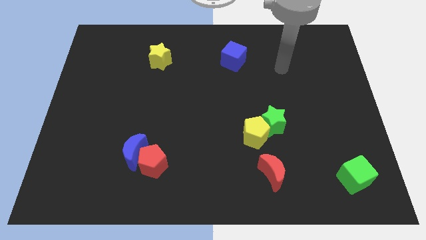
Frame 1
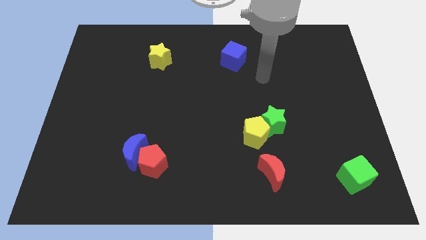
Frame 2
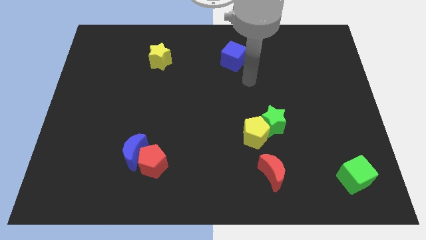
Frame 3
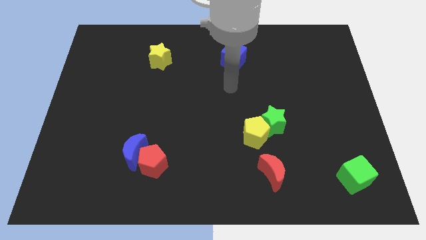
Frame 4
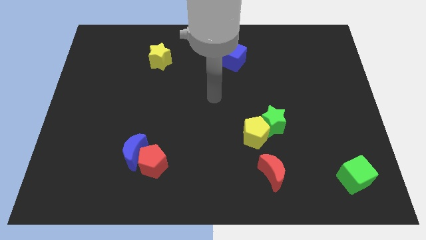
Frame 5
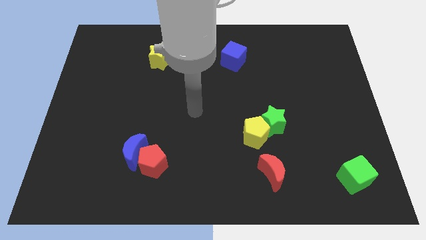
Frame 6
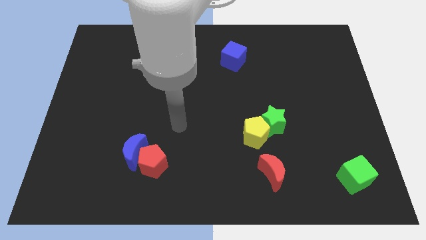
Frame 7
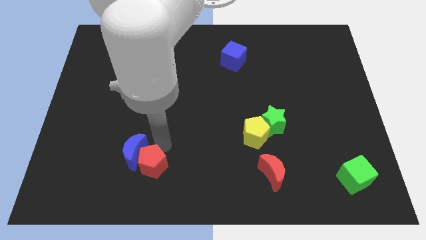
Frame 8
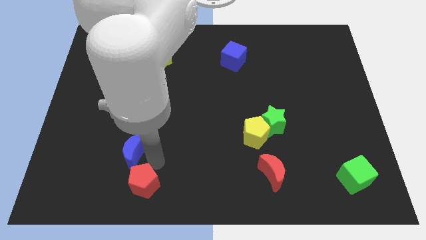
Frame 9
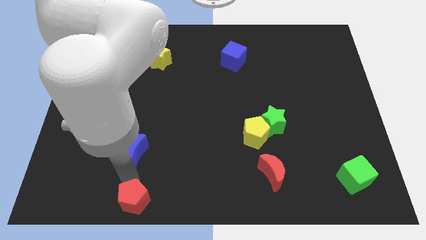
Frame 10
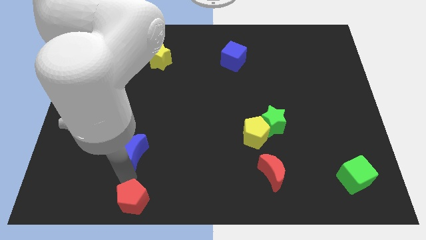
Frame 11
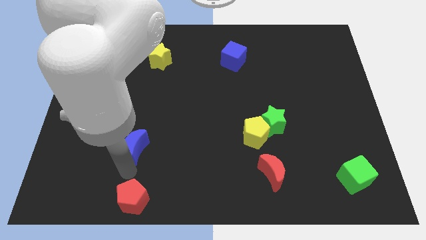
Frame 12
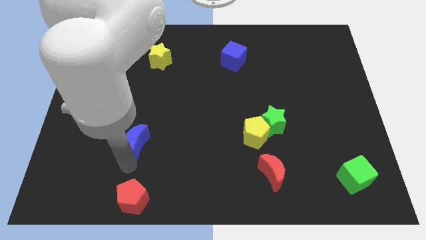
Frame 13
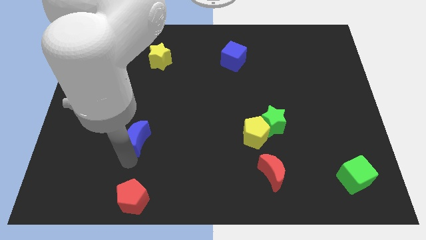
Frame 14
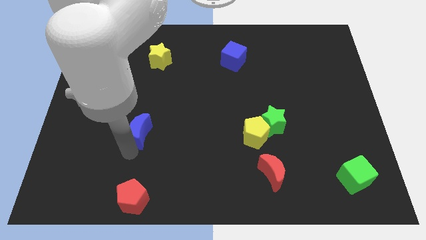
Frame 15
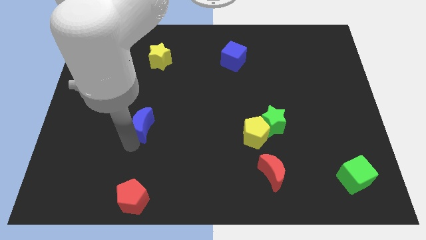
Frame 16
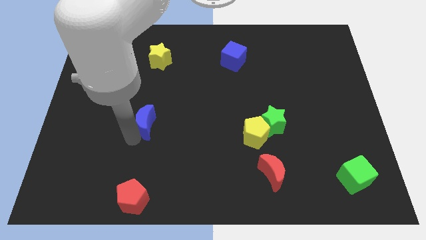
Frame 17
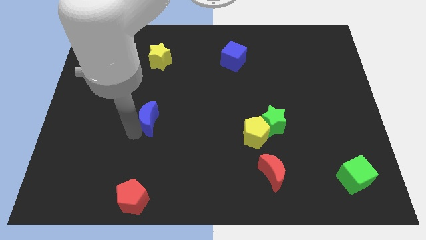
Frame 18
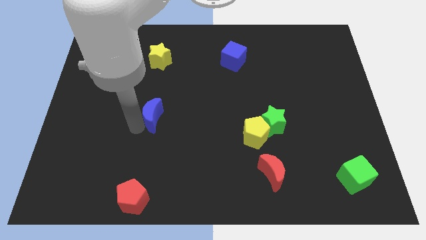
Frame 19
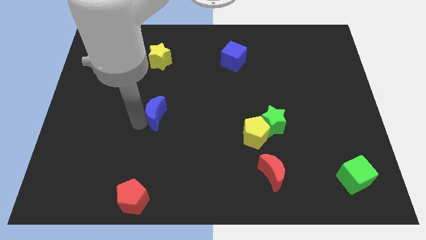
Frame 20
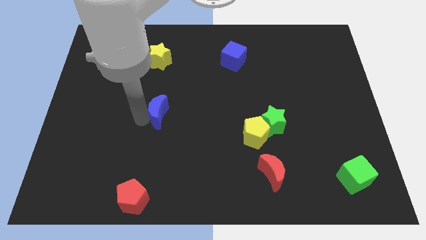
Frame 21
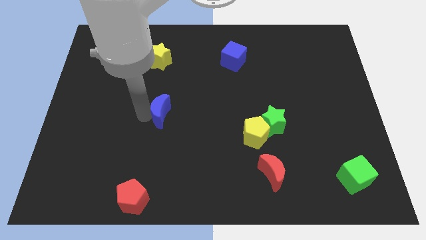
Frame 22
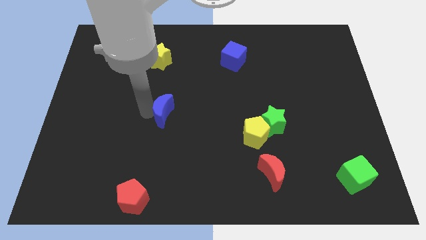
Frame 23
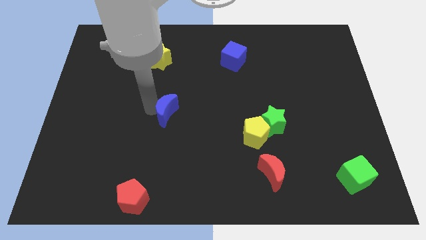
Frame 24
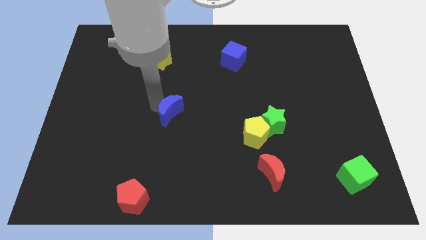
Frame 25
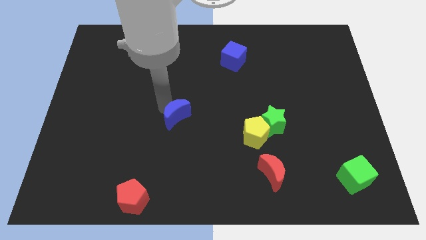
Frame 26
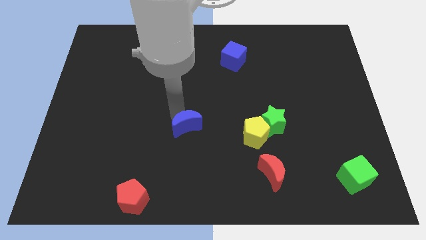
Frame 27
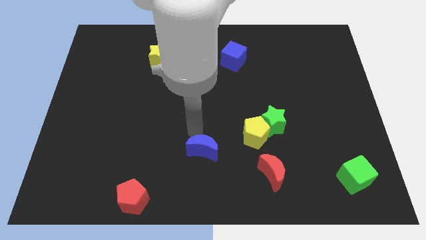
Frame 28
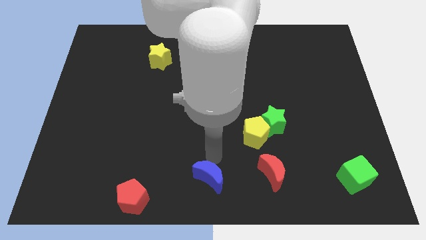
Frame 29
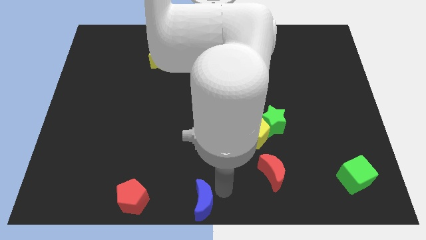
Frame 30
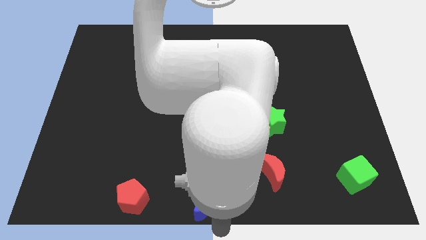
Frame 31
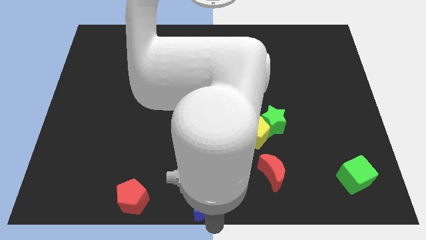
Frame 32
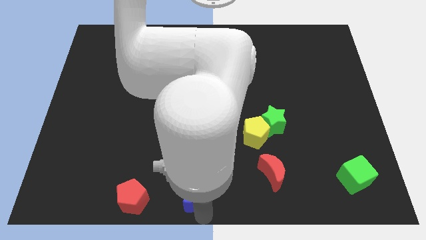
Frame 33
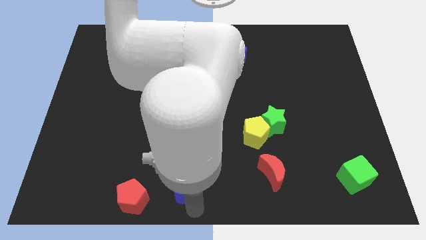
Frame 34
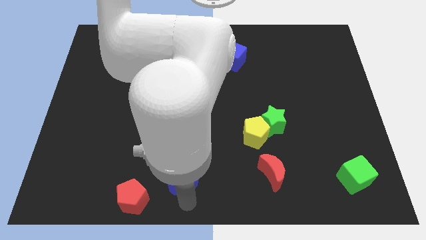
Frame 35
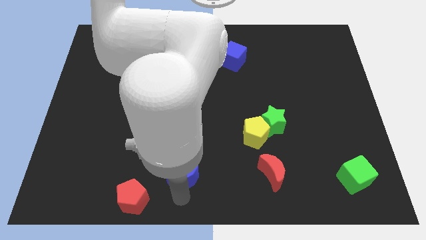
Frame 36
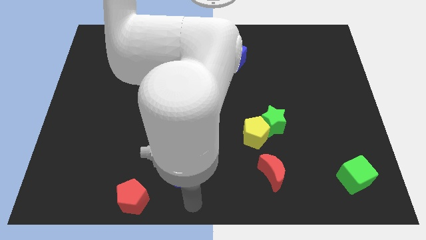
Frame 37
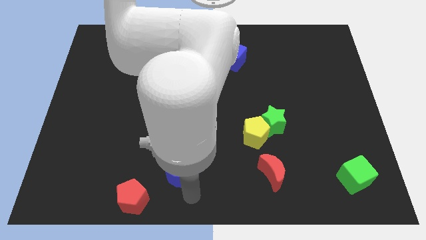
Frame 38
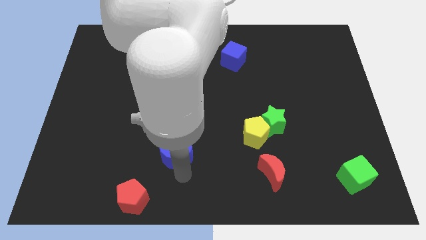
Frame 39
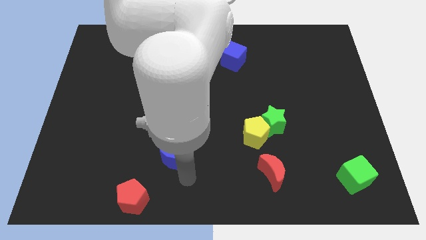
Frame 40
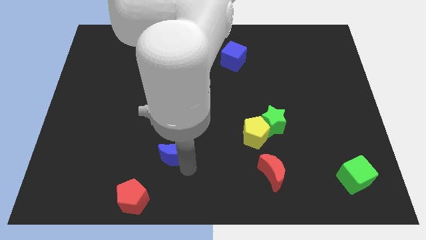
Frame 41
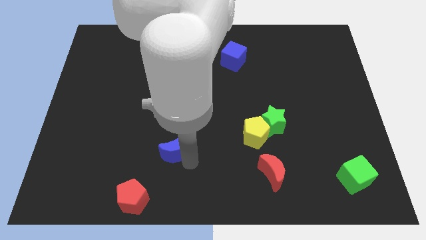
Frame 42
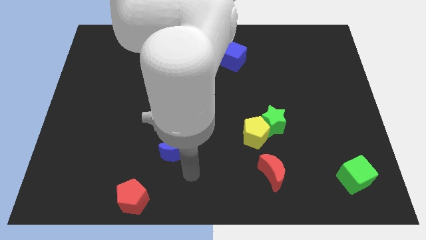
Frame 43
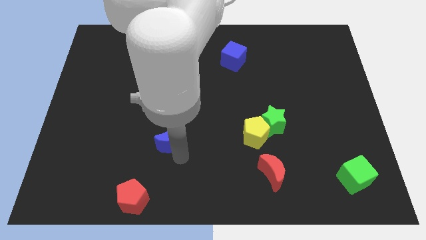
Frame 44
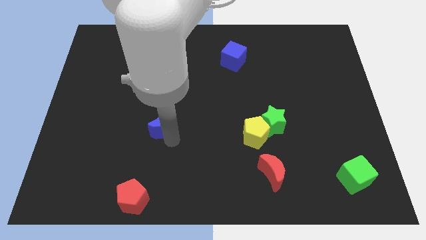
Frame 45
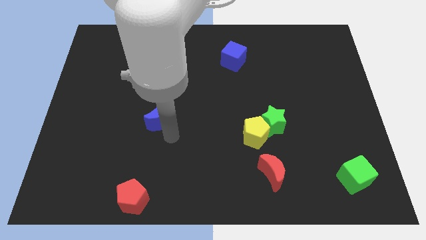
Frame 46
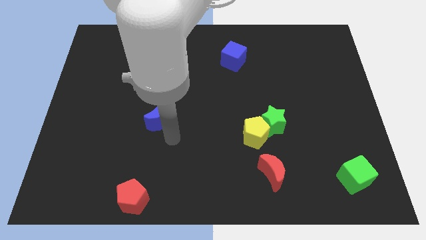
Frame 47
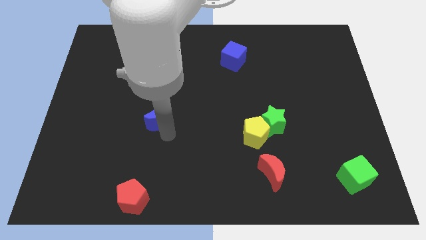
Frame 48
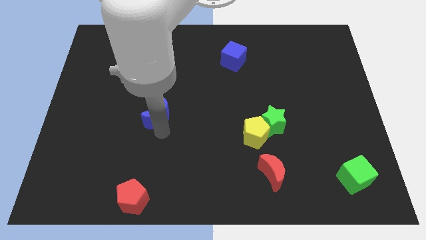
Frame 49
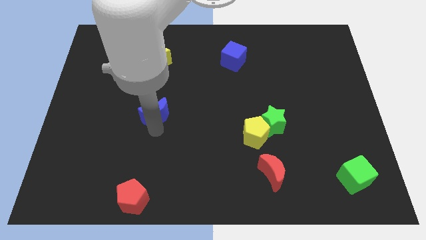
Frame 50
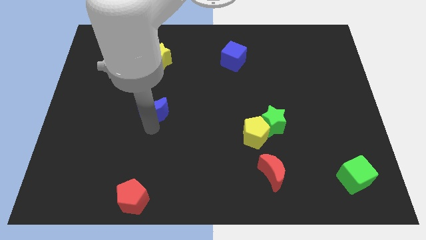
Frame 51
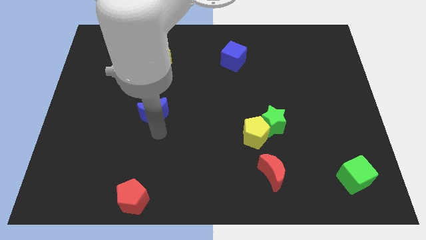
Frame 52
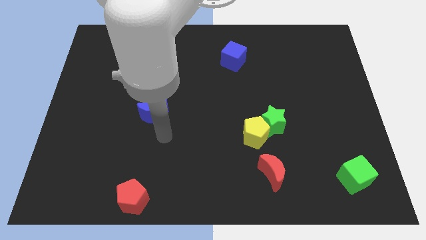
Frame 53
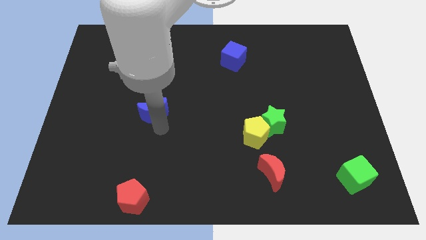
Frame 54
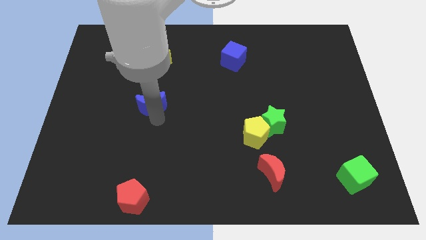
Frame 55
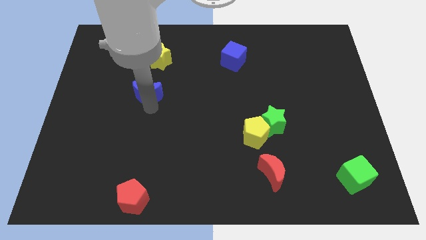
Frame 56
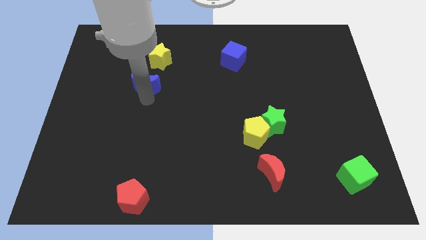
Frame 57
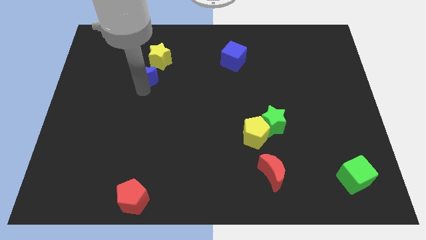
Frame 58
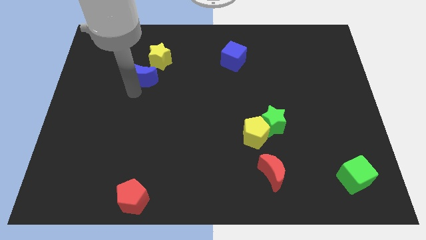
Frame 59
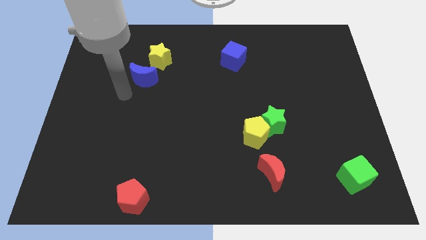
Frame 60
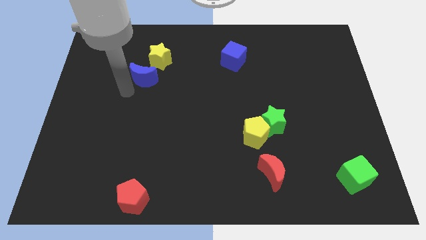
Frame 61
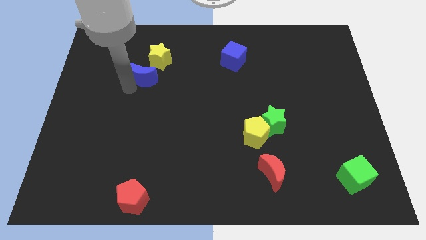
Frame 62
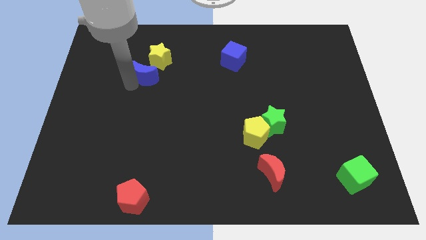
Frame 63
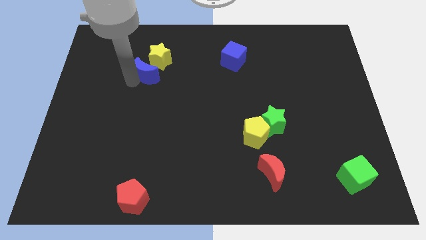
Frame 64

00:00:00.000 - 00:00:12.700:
move the blue moon towards the yellow star

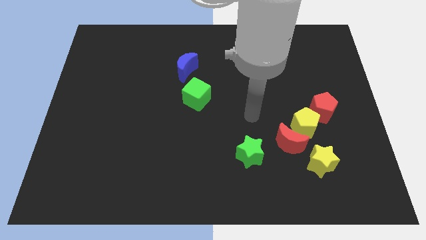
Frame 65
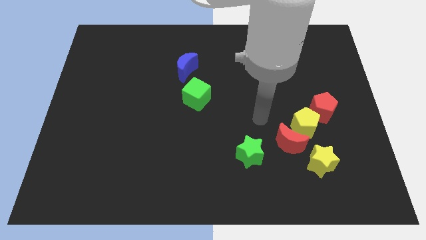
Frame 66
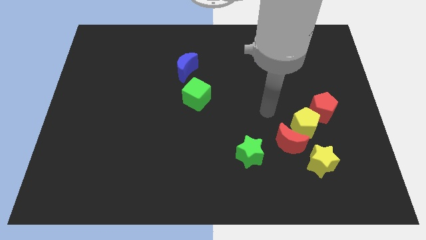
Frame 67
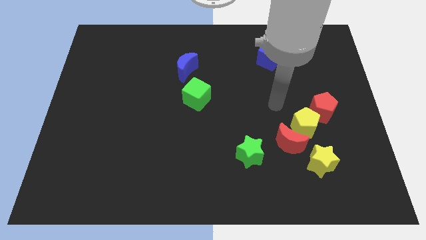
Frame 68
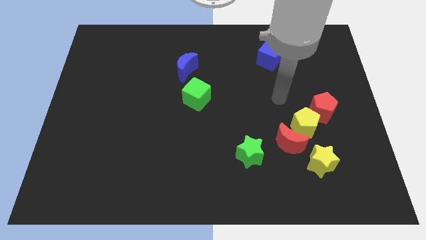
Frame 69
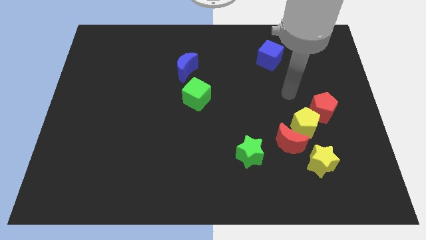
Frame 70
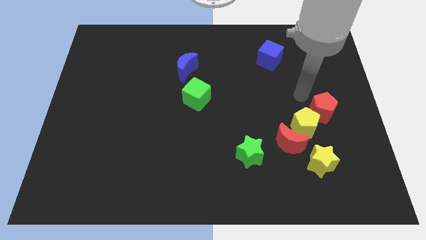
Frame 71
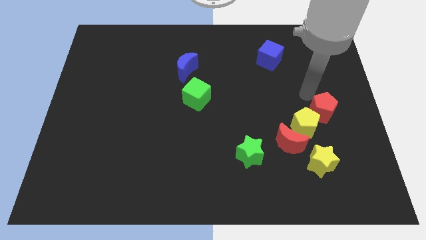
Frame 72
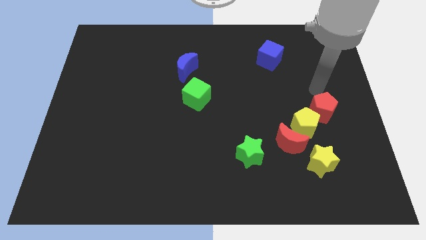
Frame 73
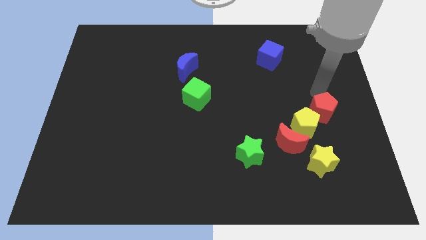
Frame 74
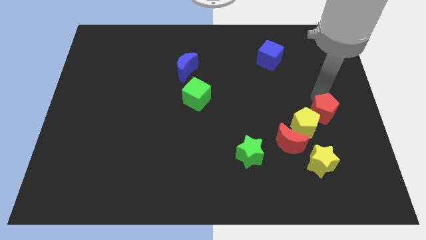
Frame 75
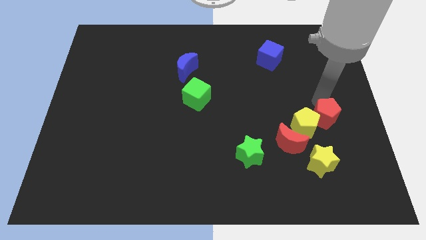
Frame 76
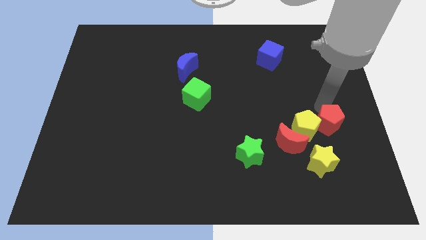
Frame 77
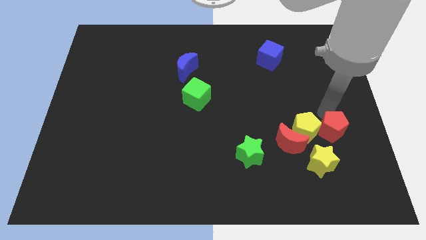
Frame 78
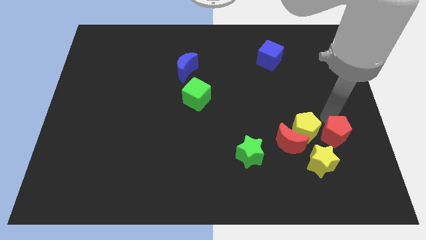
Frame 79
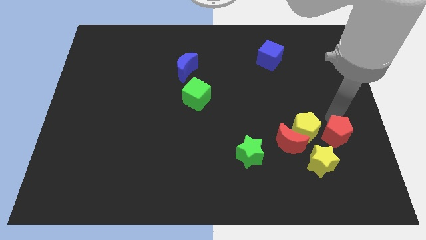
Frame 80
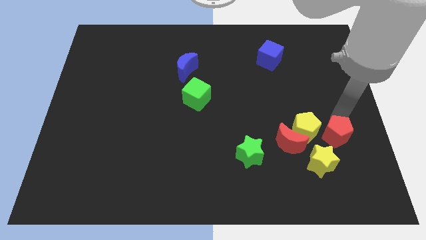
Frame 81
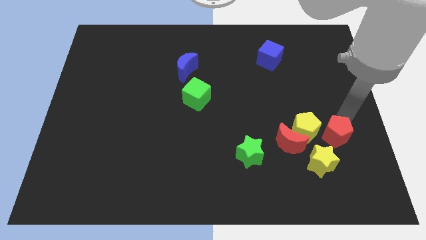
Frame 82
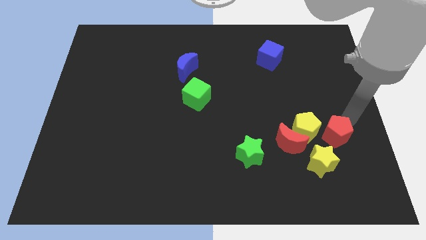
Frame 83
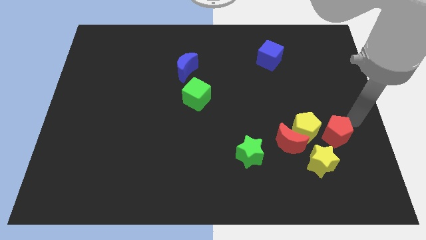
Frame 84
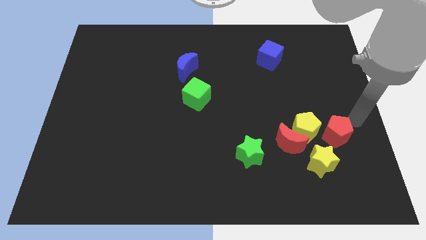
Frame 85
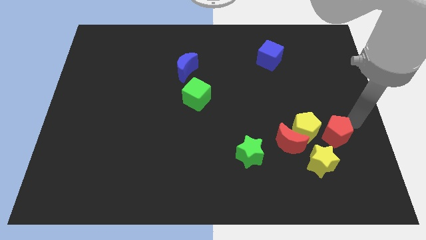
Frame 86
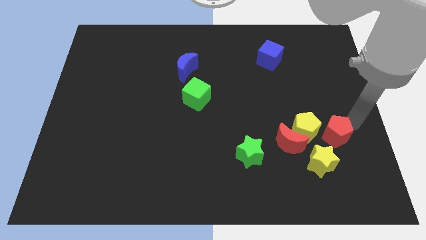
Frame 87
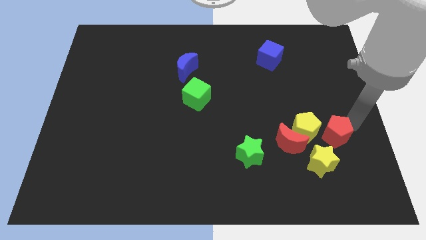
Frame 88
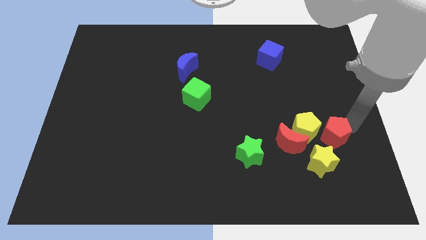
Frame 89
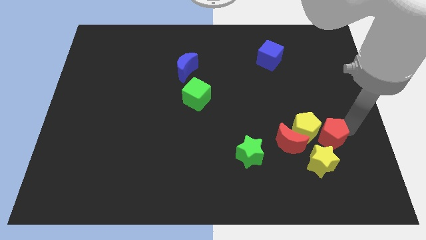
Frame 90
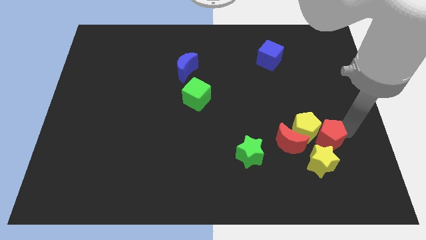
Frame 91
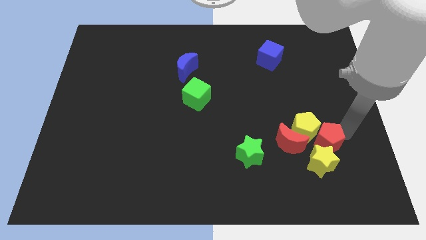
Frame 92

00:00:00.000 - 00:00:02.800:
slide the red pentagon close to the yellow star
